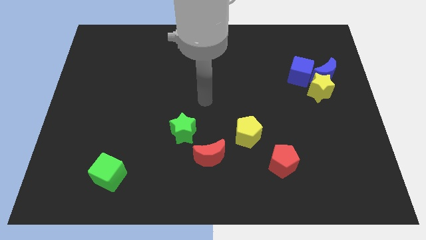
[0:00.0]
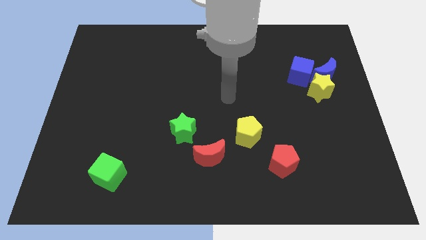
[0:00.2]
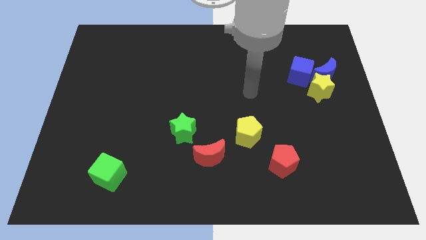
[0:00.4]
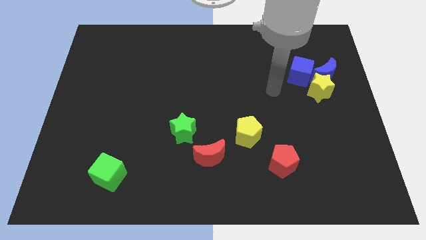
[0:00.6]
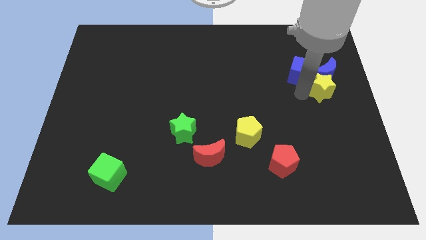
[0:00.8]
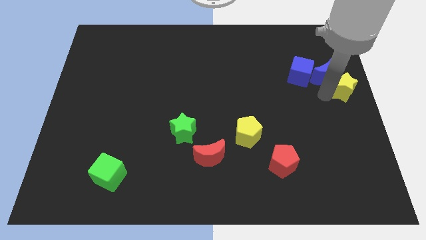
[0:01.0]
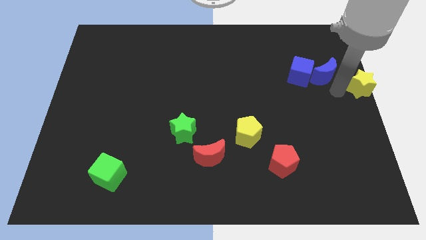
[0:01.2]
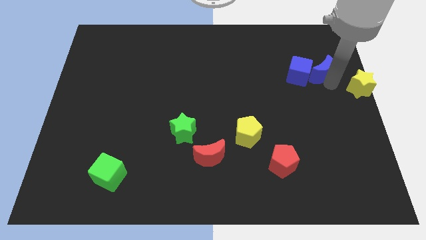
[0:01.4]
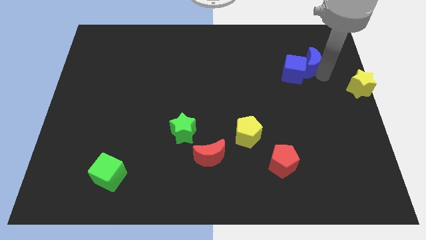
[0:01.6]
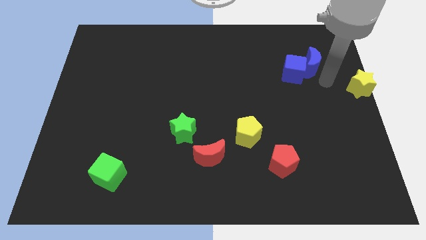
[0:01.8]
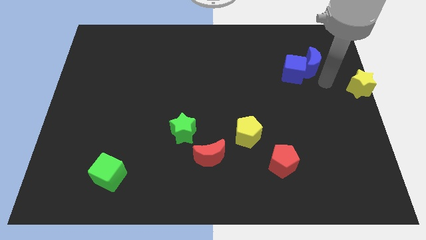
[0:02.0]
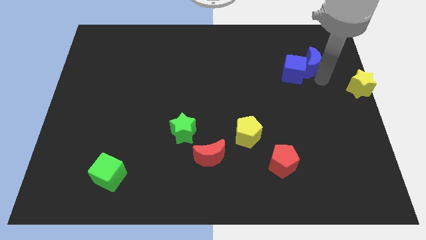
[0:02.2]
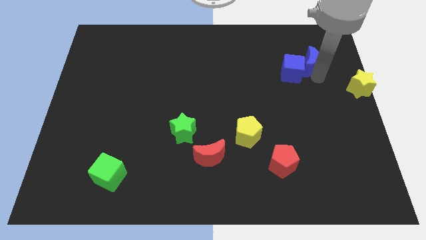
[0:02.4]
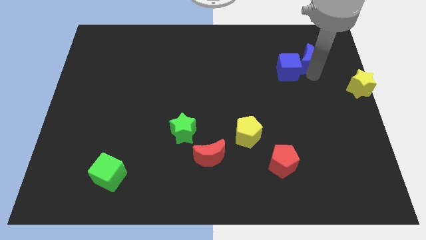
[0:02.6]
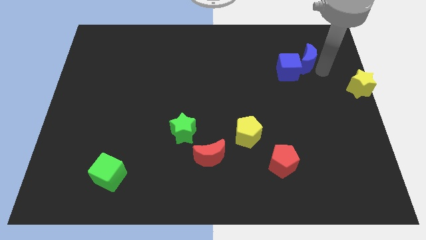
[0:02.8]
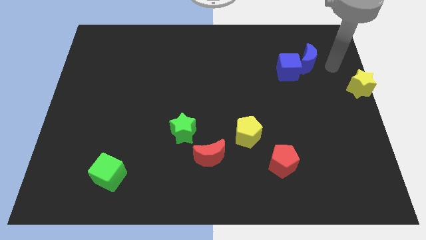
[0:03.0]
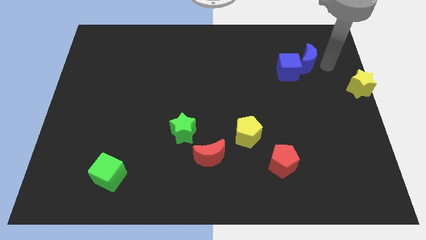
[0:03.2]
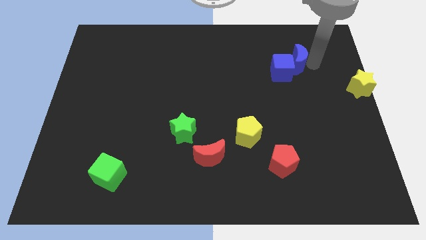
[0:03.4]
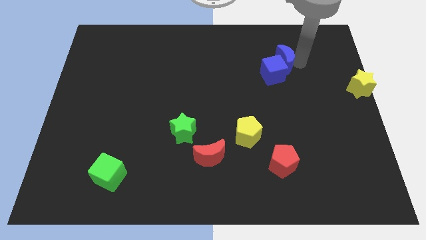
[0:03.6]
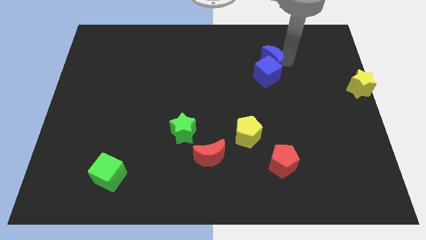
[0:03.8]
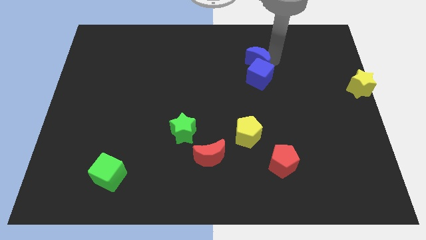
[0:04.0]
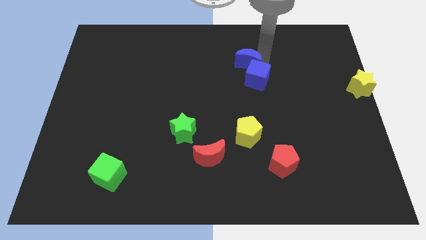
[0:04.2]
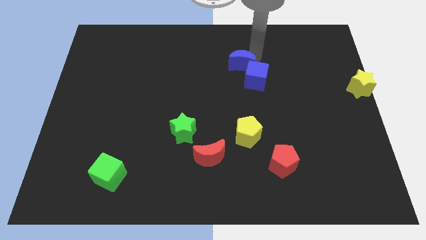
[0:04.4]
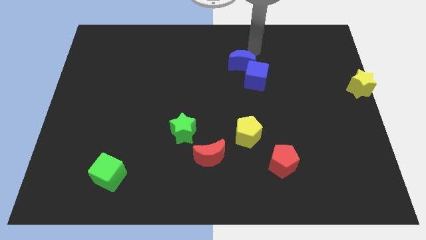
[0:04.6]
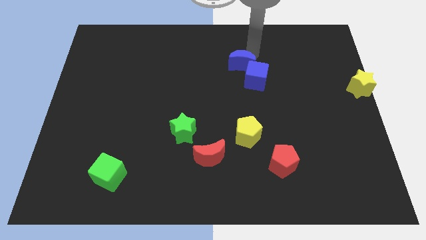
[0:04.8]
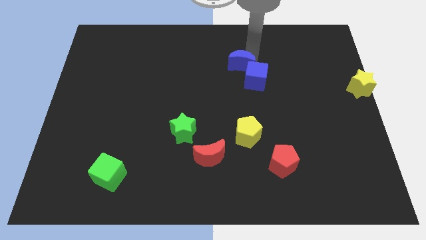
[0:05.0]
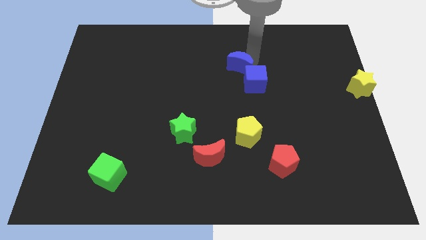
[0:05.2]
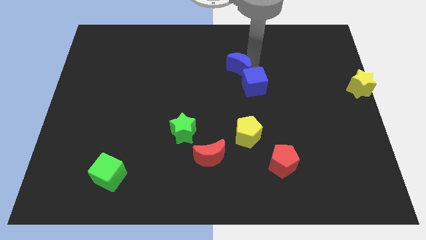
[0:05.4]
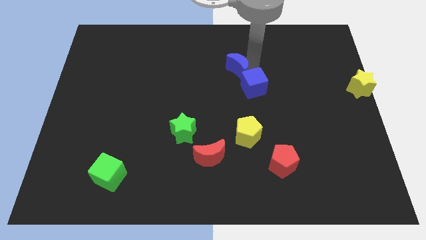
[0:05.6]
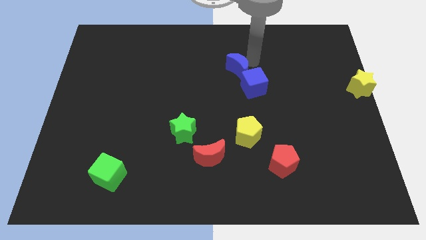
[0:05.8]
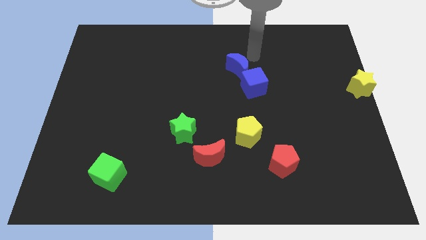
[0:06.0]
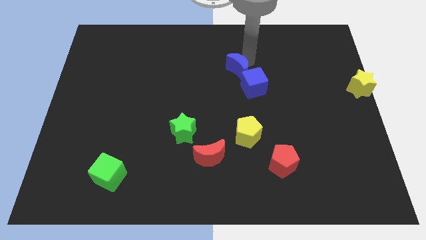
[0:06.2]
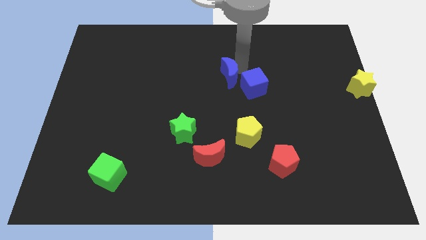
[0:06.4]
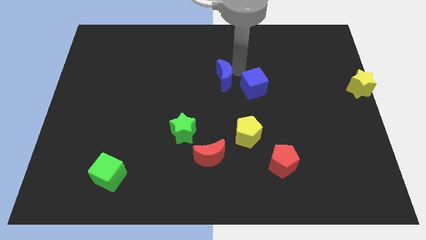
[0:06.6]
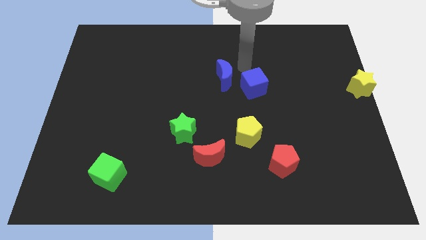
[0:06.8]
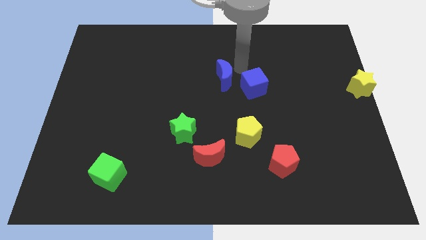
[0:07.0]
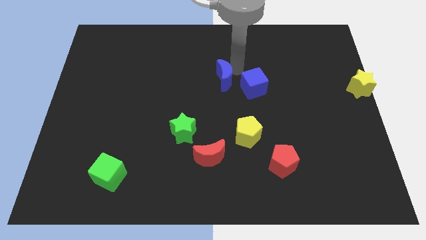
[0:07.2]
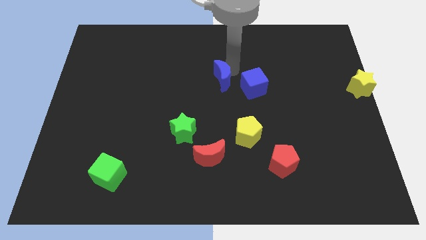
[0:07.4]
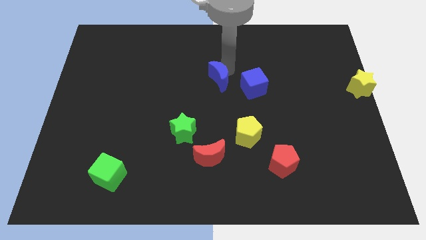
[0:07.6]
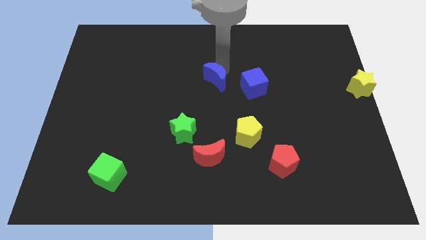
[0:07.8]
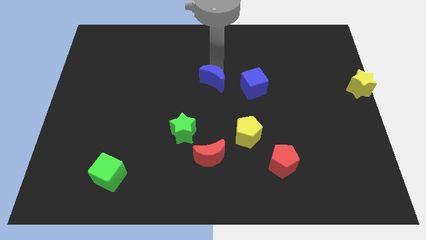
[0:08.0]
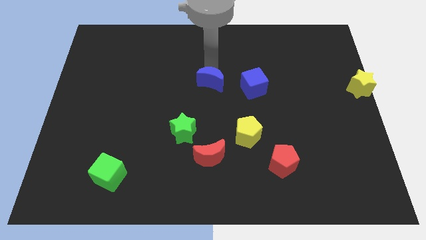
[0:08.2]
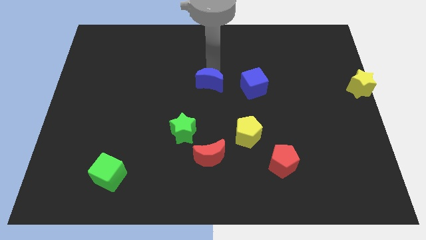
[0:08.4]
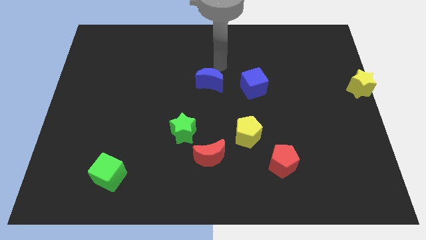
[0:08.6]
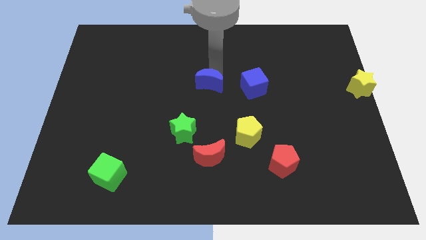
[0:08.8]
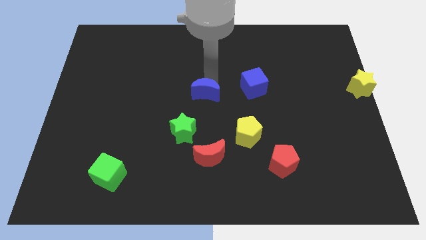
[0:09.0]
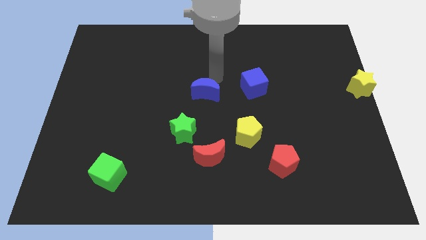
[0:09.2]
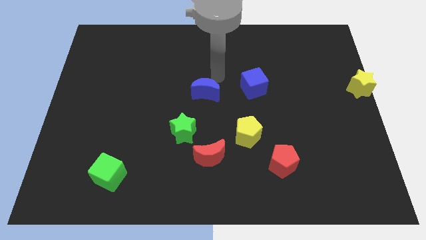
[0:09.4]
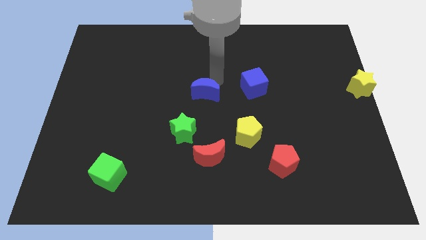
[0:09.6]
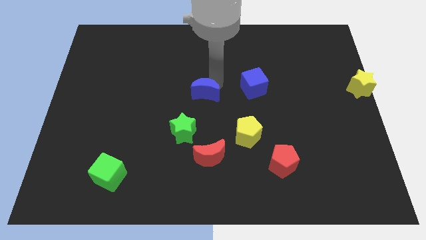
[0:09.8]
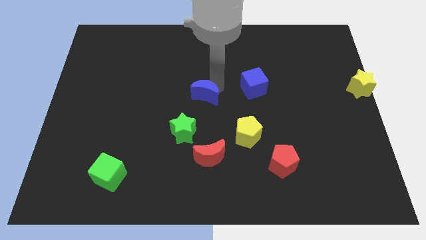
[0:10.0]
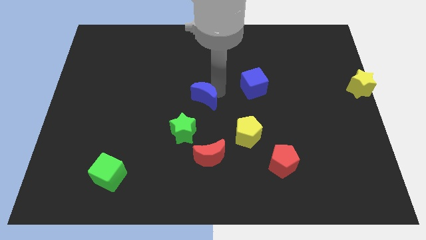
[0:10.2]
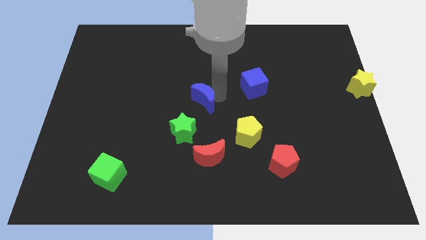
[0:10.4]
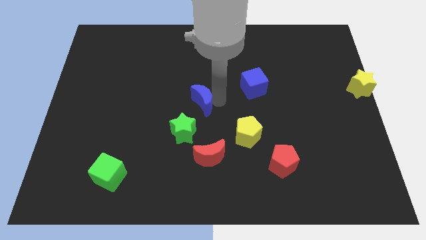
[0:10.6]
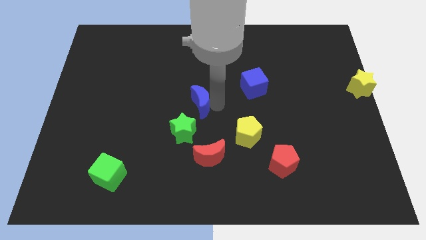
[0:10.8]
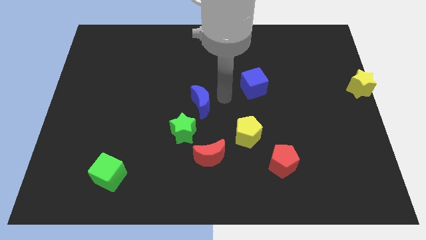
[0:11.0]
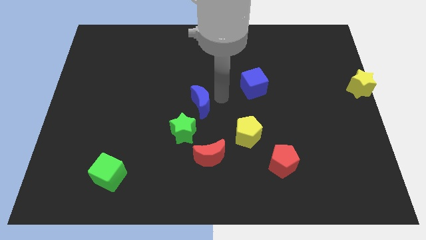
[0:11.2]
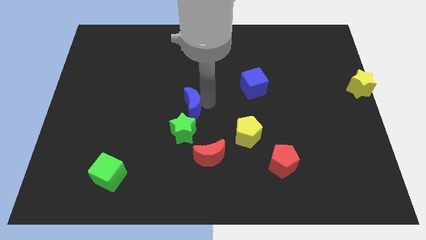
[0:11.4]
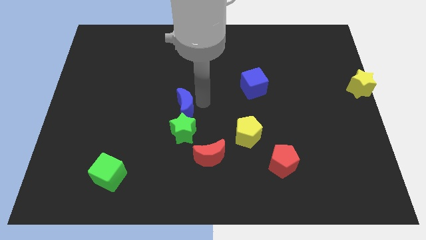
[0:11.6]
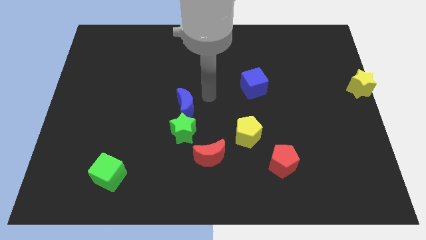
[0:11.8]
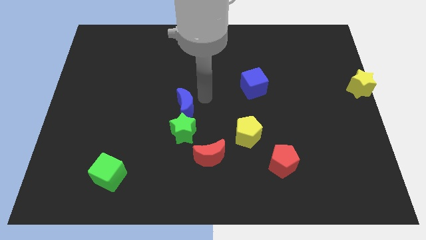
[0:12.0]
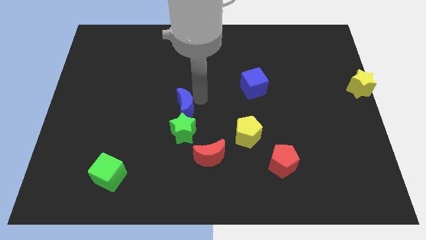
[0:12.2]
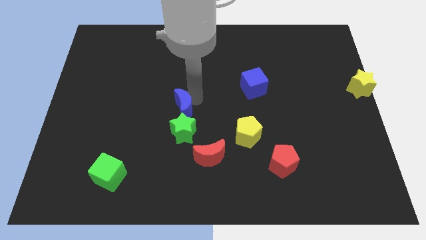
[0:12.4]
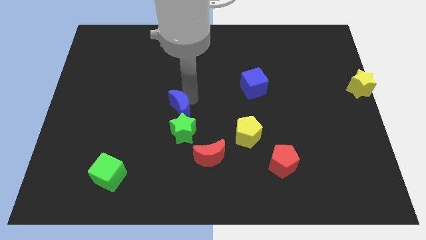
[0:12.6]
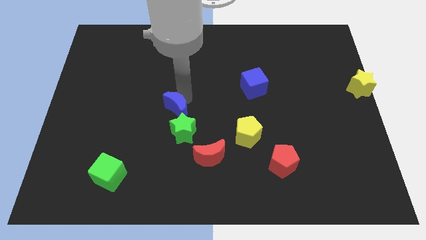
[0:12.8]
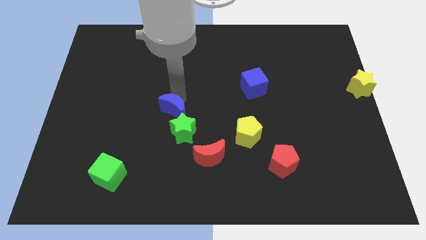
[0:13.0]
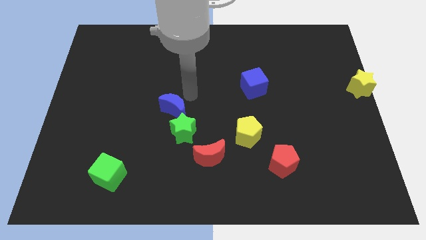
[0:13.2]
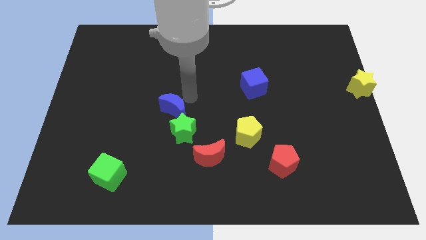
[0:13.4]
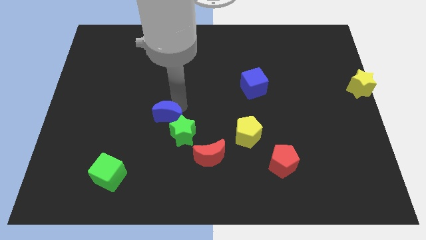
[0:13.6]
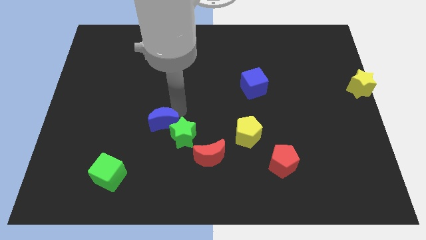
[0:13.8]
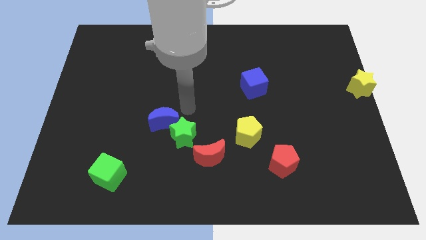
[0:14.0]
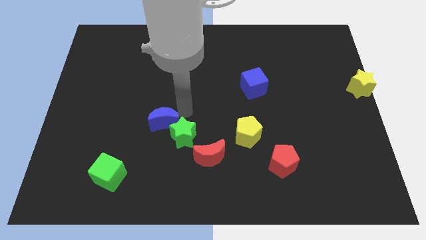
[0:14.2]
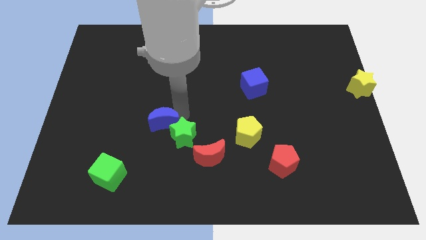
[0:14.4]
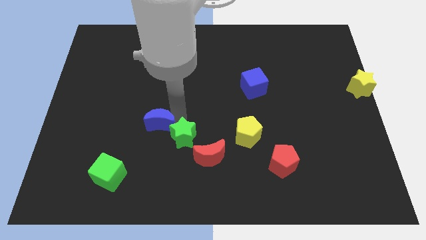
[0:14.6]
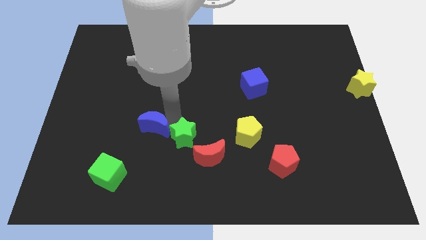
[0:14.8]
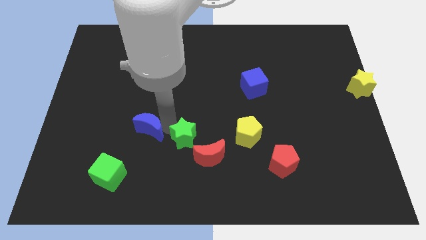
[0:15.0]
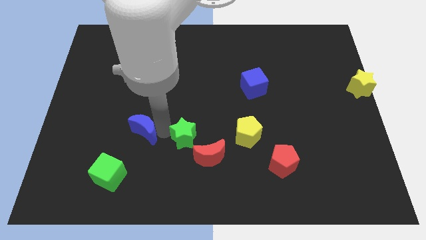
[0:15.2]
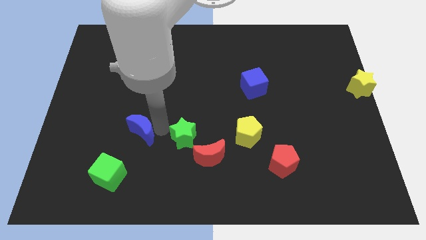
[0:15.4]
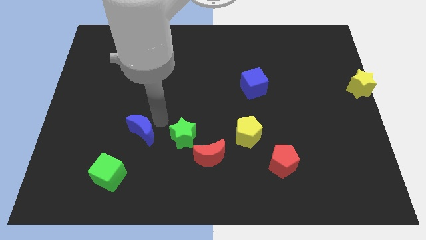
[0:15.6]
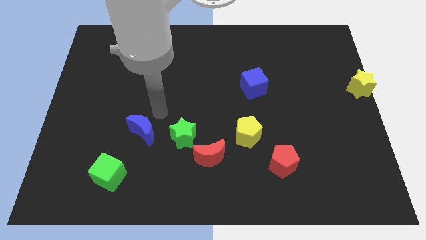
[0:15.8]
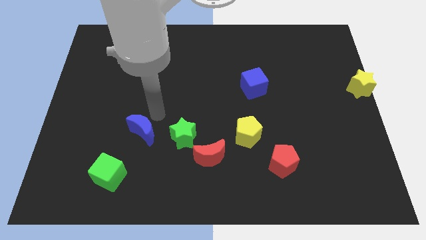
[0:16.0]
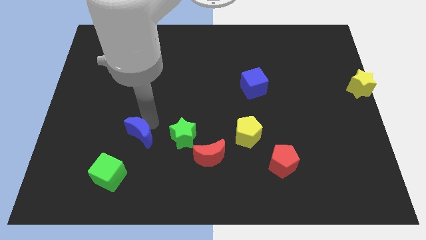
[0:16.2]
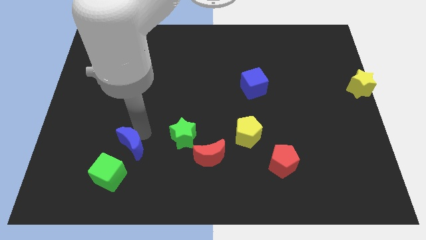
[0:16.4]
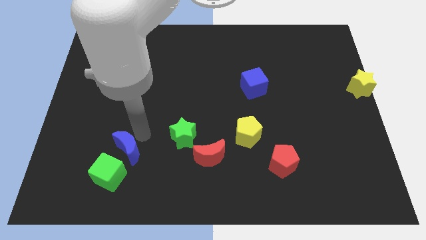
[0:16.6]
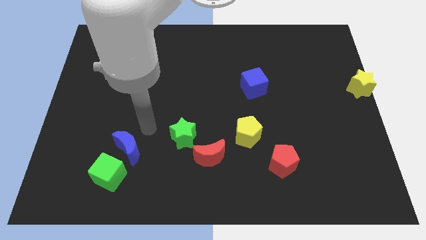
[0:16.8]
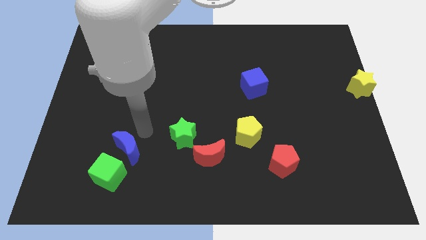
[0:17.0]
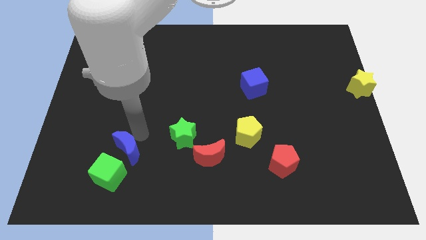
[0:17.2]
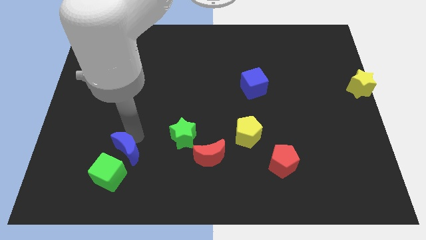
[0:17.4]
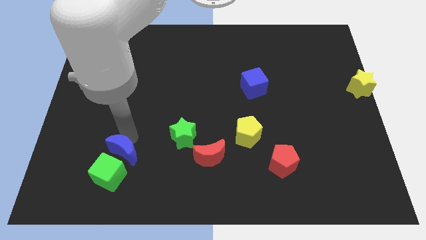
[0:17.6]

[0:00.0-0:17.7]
put the blue moon next to the green cube
